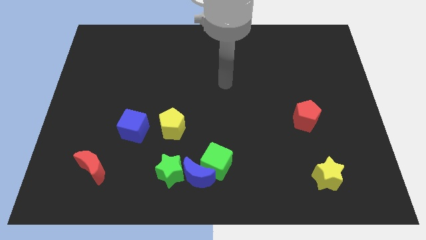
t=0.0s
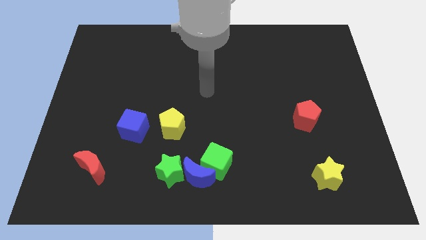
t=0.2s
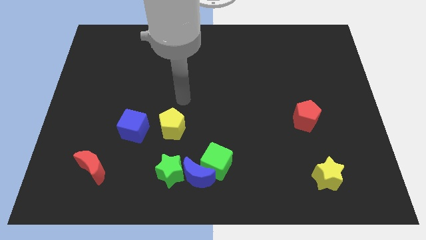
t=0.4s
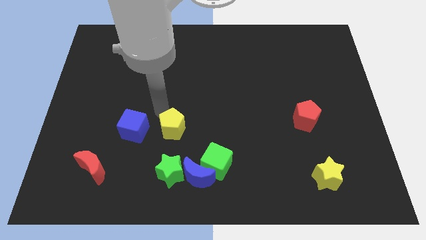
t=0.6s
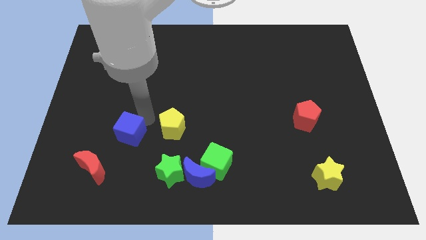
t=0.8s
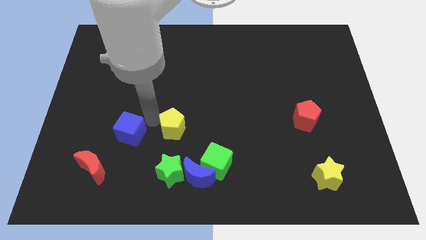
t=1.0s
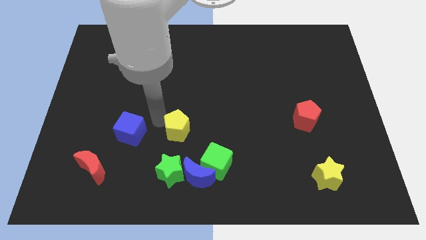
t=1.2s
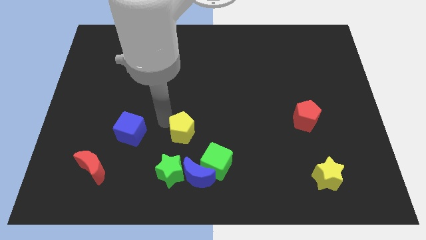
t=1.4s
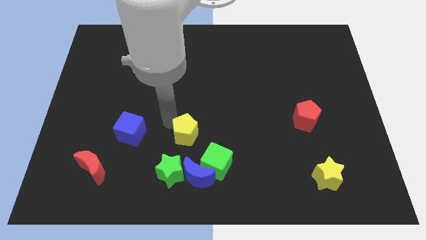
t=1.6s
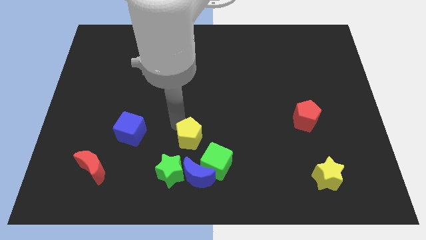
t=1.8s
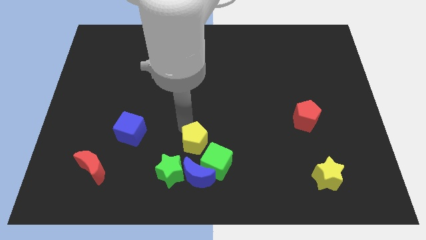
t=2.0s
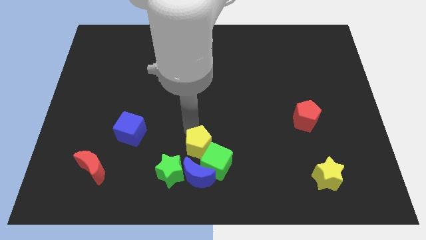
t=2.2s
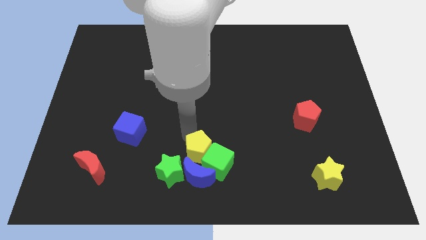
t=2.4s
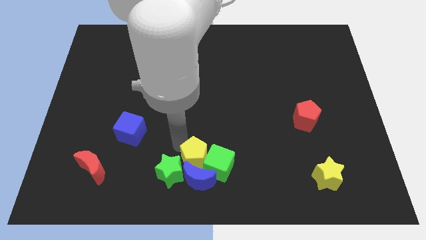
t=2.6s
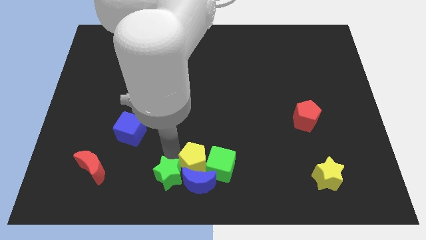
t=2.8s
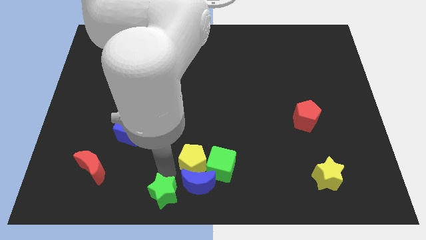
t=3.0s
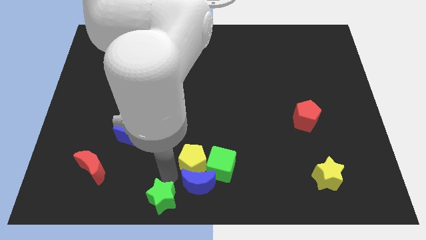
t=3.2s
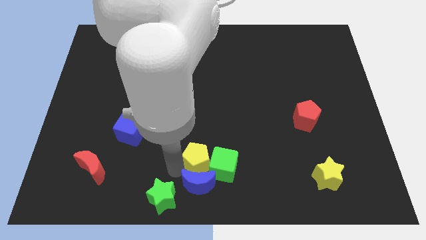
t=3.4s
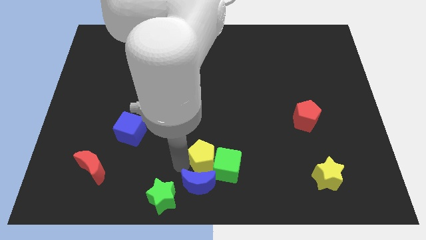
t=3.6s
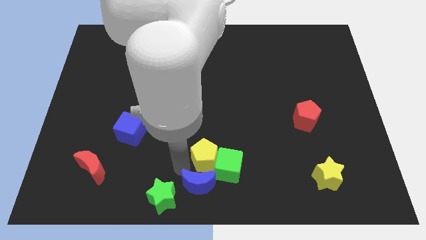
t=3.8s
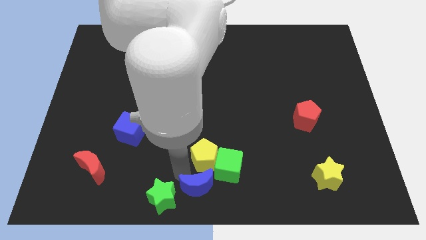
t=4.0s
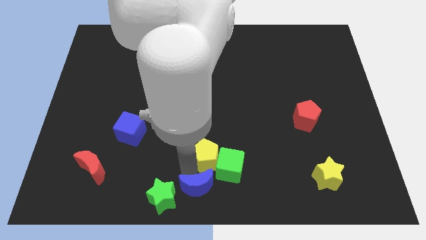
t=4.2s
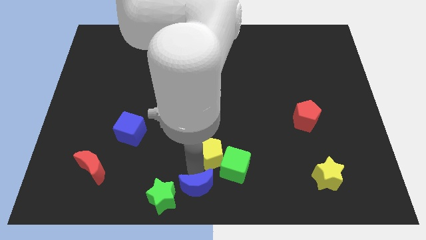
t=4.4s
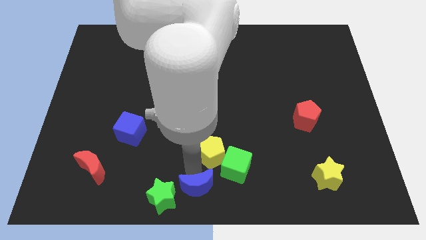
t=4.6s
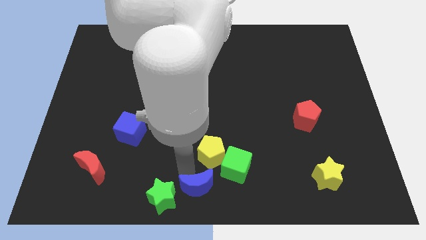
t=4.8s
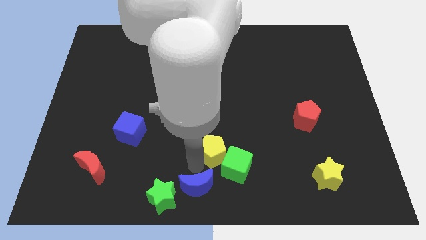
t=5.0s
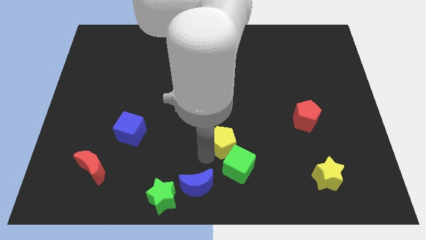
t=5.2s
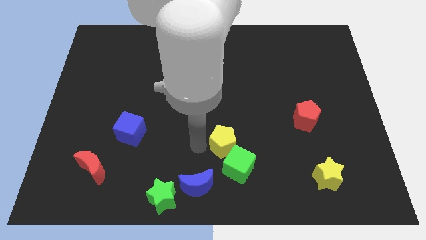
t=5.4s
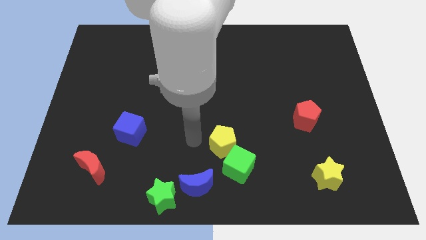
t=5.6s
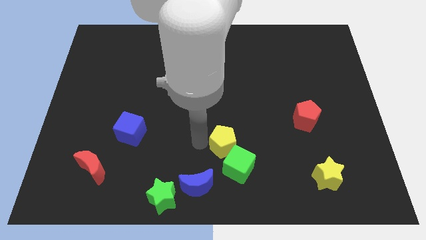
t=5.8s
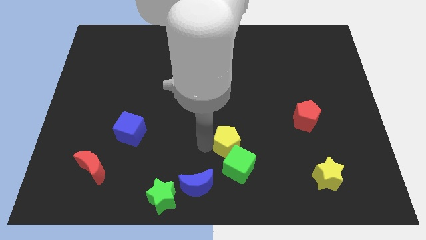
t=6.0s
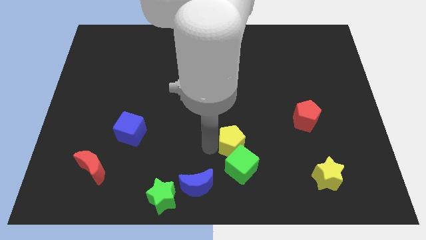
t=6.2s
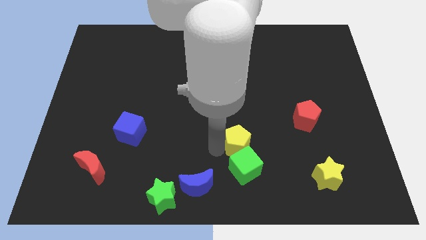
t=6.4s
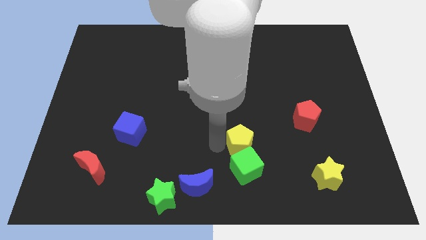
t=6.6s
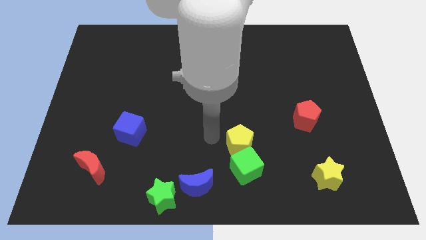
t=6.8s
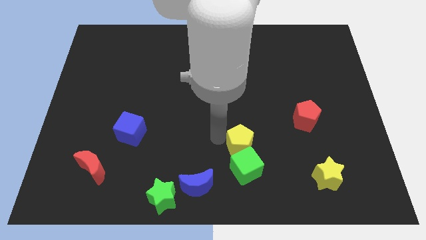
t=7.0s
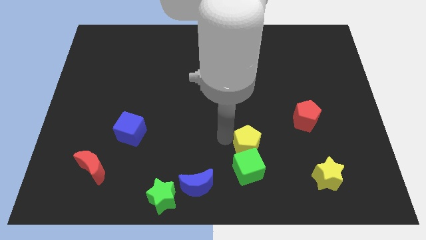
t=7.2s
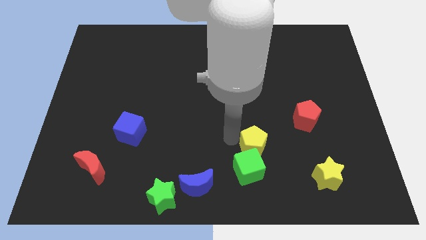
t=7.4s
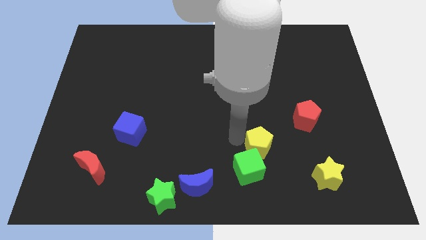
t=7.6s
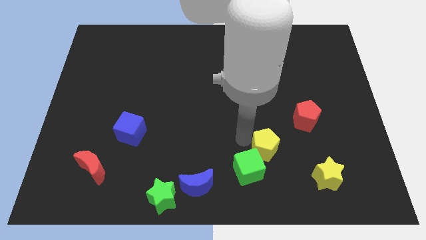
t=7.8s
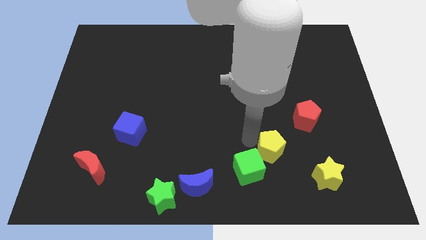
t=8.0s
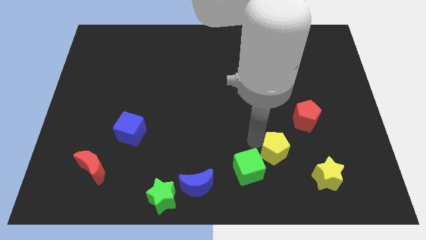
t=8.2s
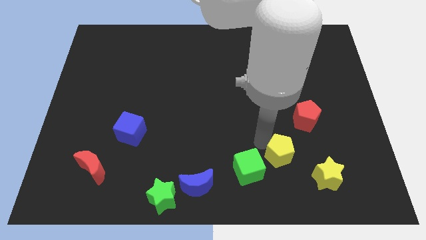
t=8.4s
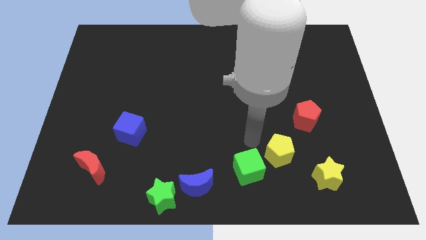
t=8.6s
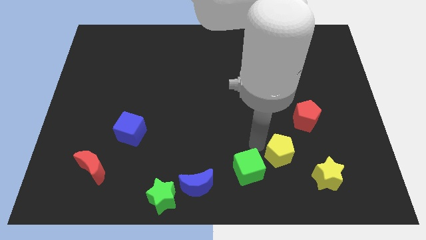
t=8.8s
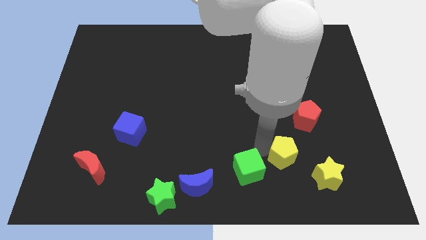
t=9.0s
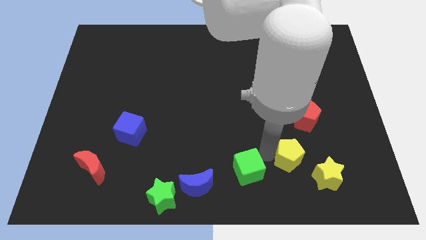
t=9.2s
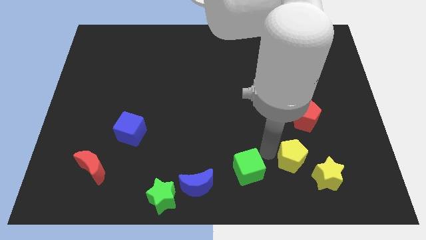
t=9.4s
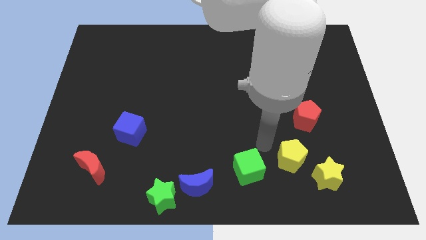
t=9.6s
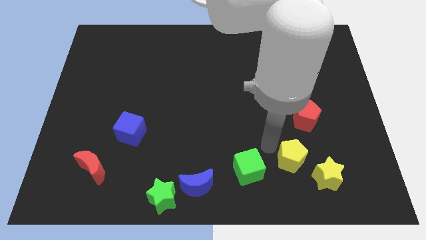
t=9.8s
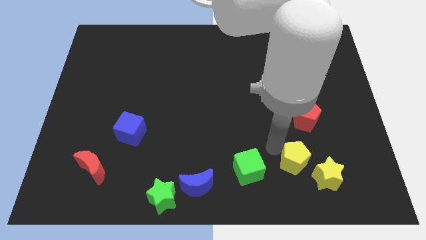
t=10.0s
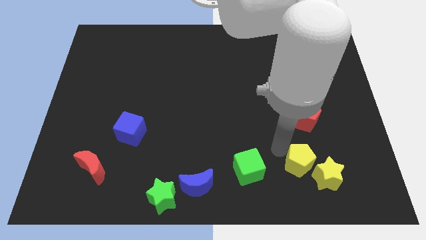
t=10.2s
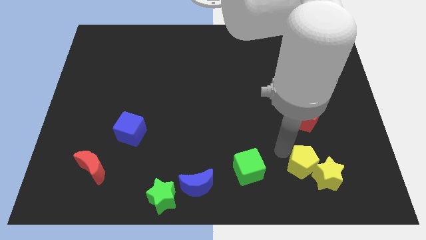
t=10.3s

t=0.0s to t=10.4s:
move the yellow pentagon to the yellow star

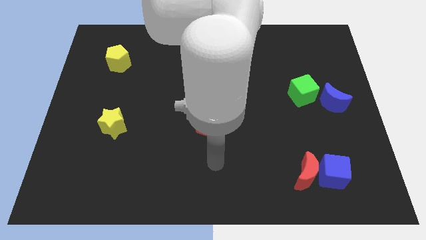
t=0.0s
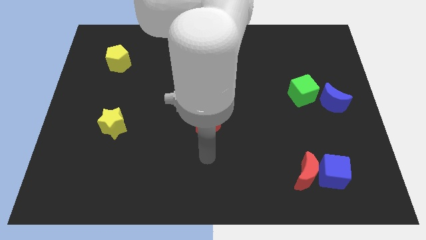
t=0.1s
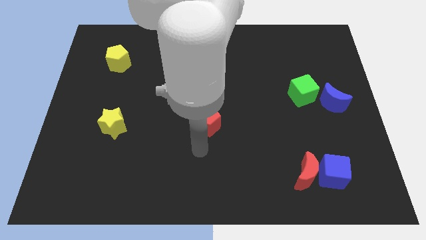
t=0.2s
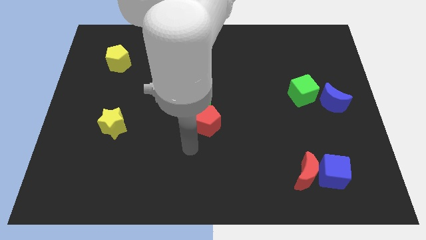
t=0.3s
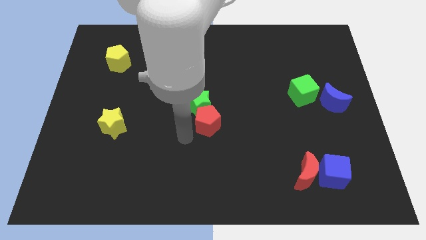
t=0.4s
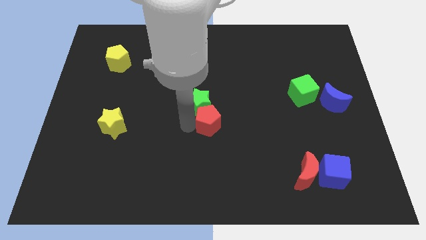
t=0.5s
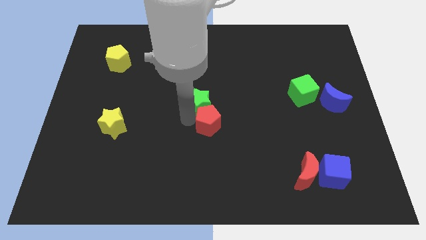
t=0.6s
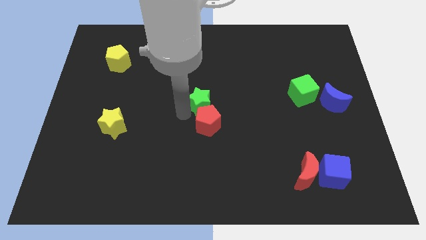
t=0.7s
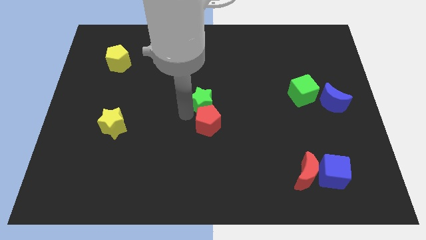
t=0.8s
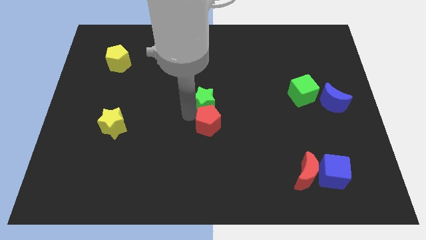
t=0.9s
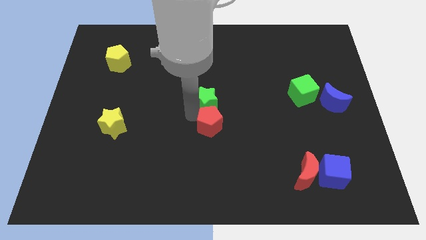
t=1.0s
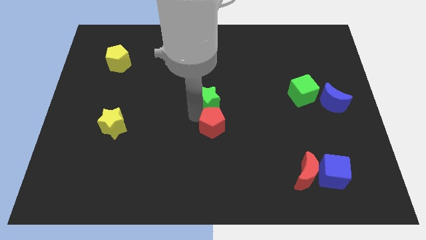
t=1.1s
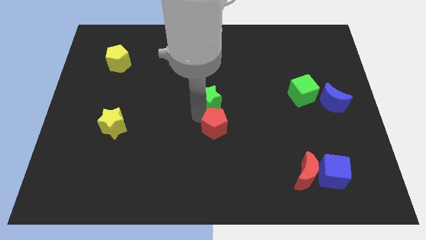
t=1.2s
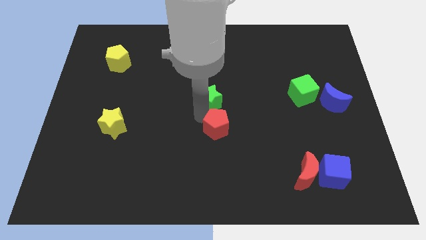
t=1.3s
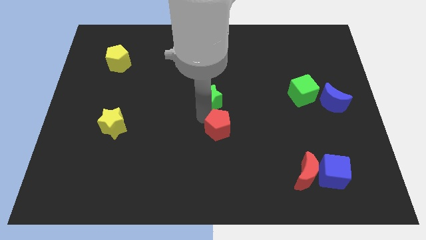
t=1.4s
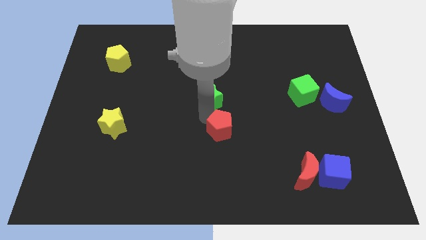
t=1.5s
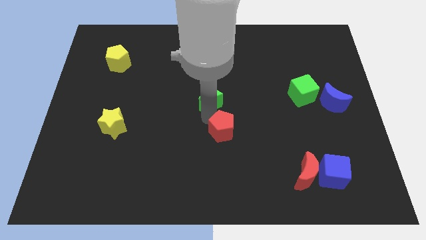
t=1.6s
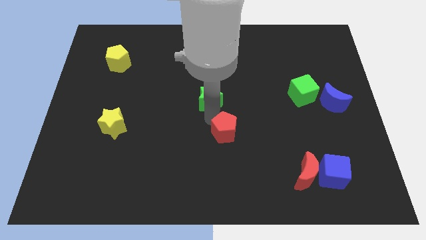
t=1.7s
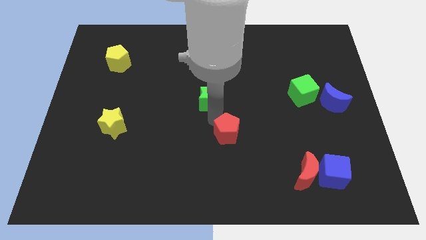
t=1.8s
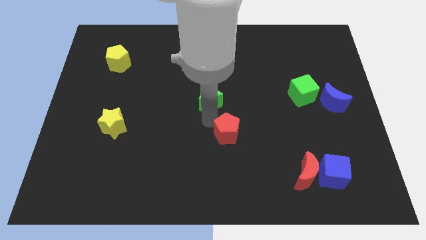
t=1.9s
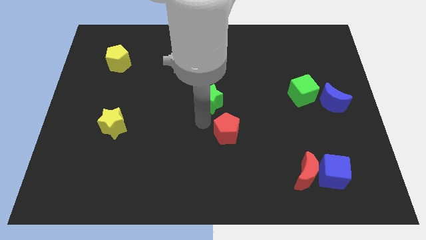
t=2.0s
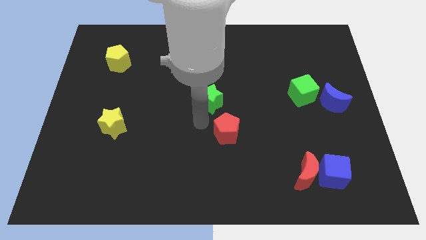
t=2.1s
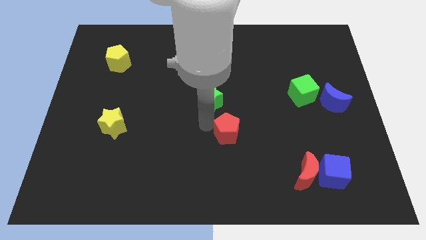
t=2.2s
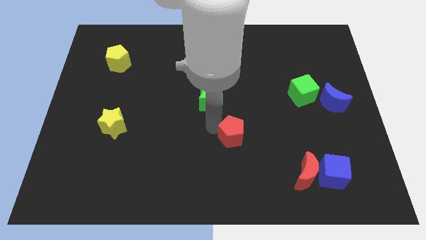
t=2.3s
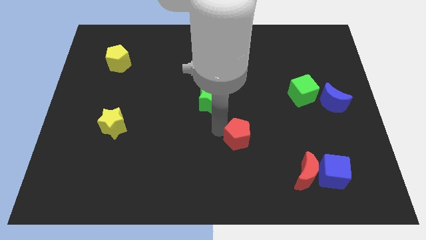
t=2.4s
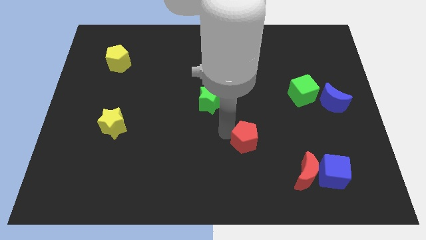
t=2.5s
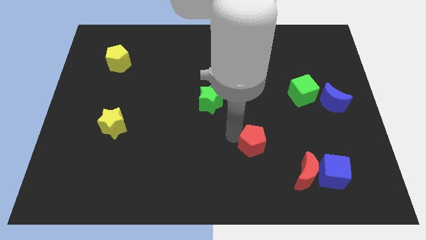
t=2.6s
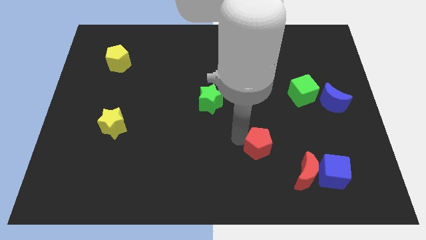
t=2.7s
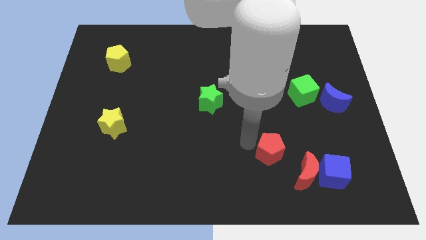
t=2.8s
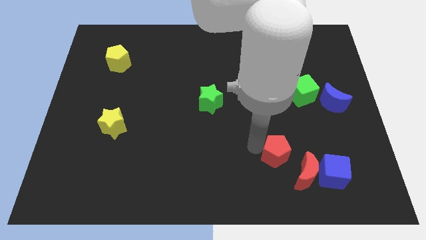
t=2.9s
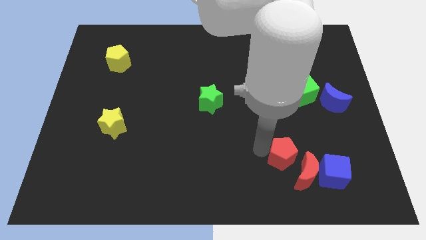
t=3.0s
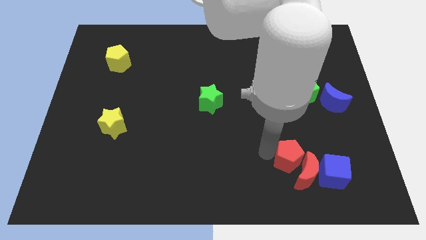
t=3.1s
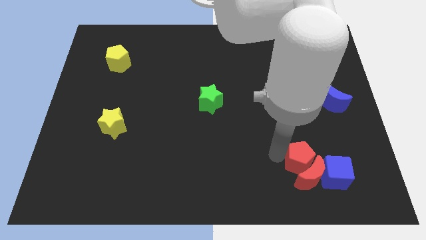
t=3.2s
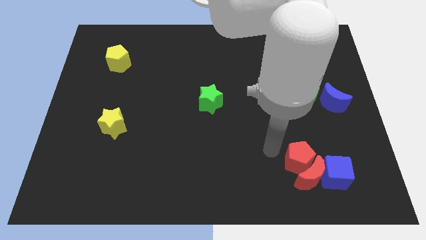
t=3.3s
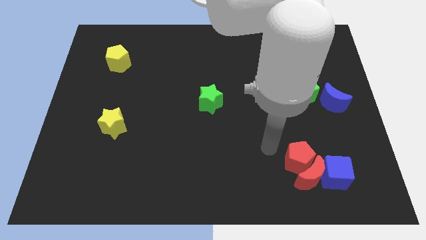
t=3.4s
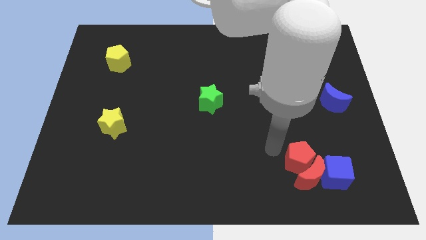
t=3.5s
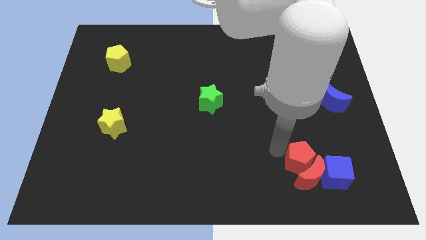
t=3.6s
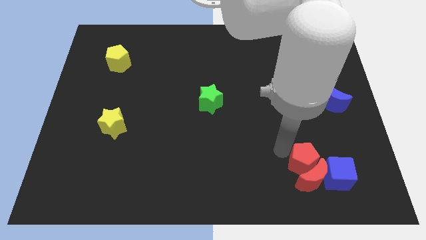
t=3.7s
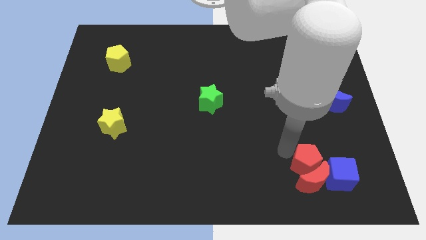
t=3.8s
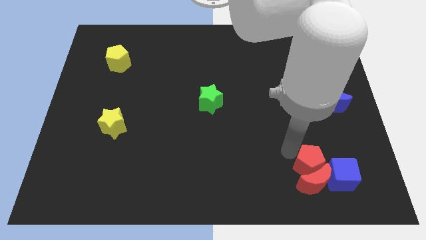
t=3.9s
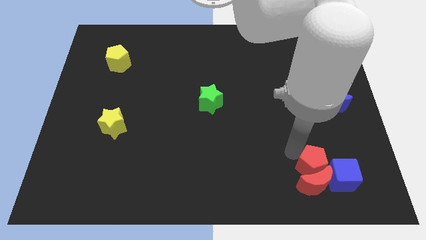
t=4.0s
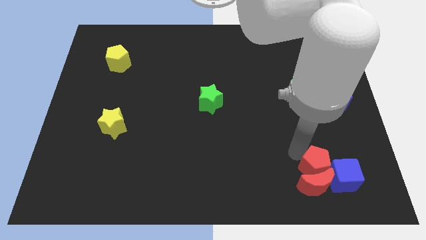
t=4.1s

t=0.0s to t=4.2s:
slide the red pentagon next to the blue cube
